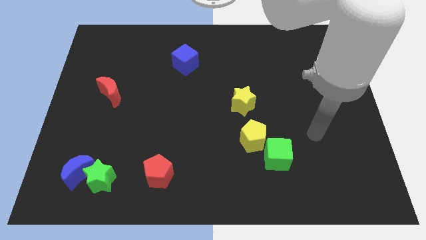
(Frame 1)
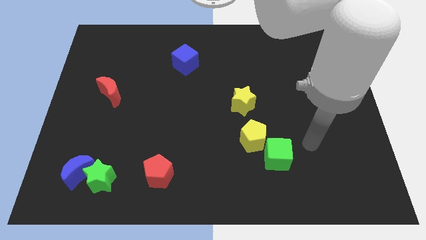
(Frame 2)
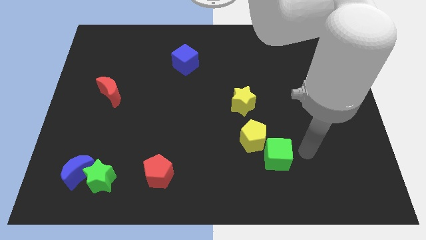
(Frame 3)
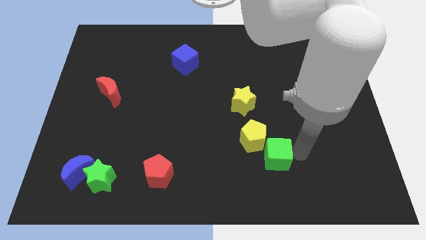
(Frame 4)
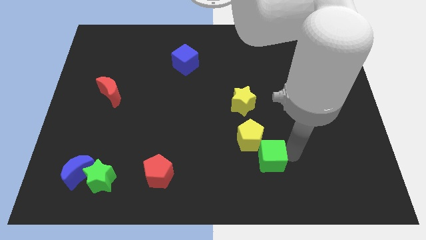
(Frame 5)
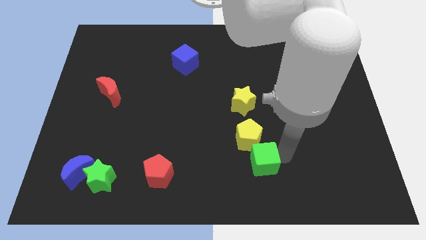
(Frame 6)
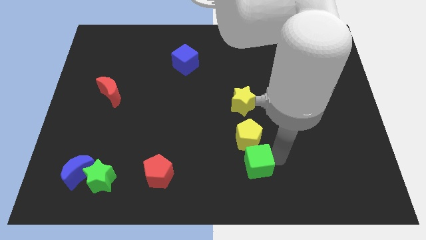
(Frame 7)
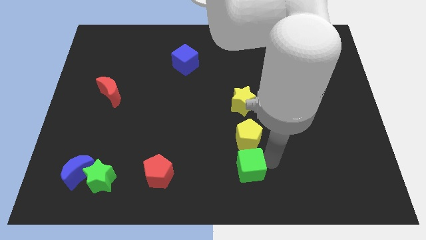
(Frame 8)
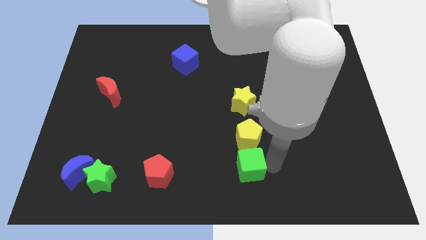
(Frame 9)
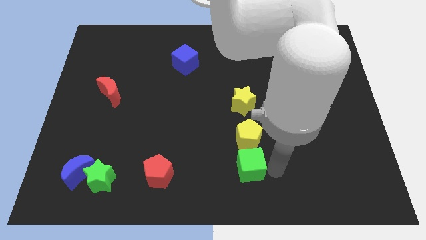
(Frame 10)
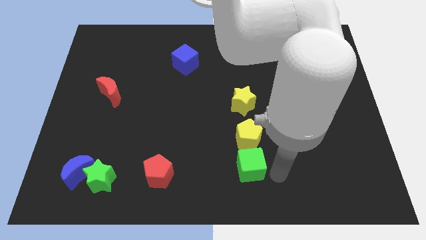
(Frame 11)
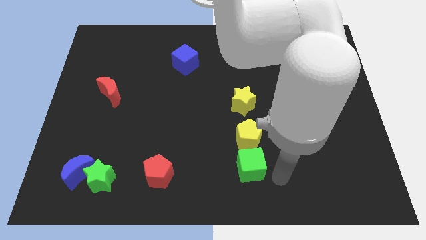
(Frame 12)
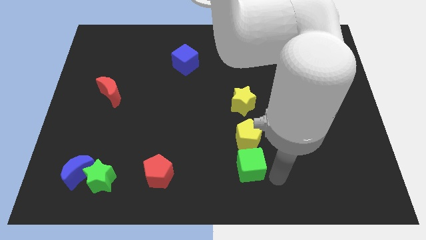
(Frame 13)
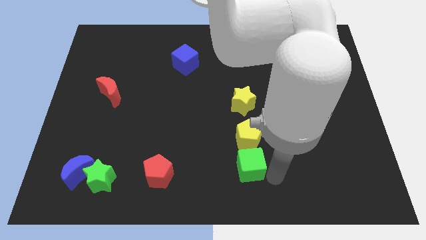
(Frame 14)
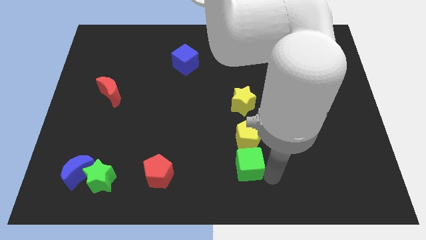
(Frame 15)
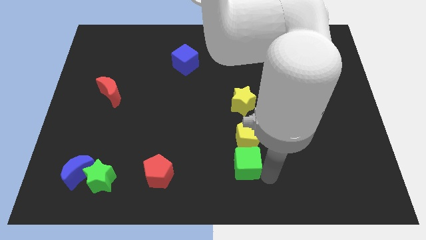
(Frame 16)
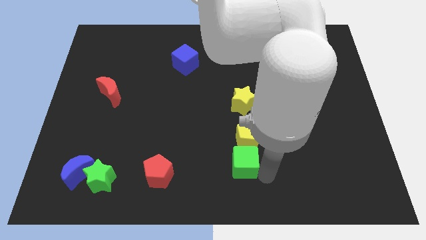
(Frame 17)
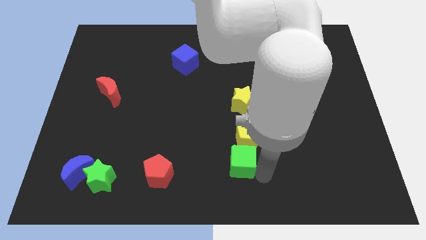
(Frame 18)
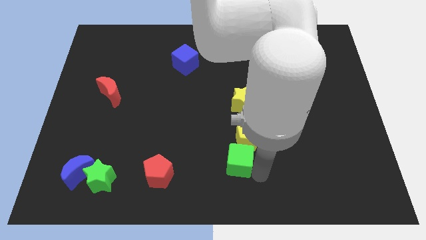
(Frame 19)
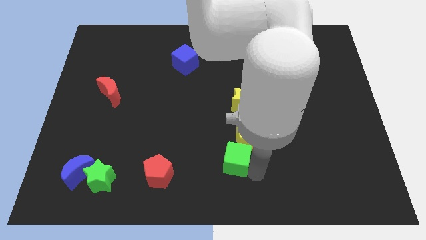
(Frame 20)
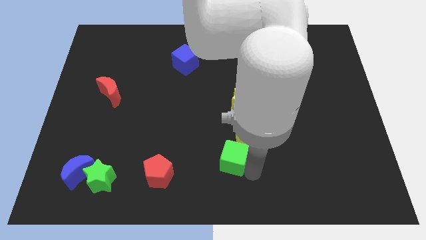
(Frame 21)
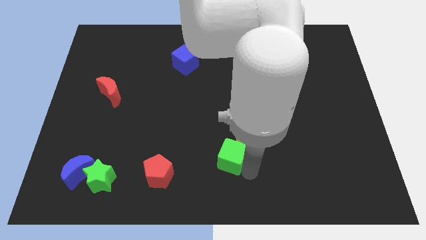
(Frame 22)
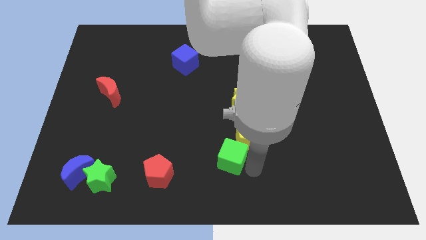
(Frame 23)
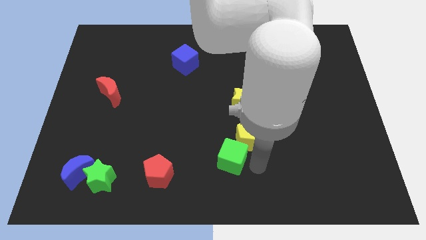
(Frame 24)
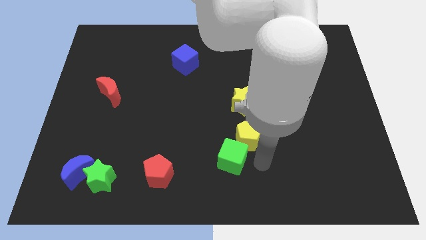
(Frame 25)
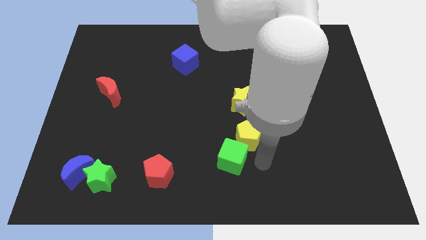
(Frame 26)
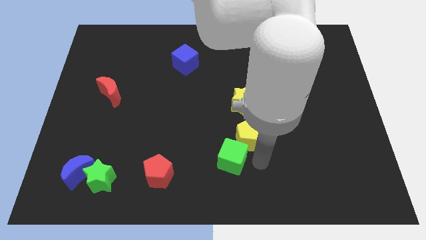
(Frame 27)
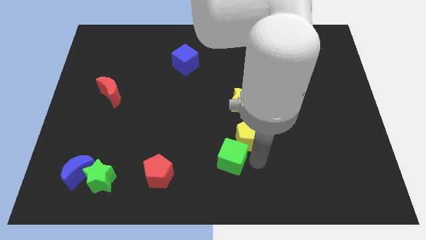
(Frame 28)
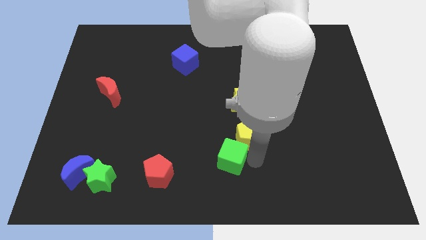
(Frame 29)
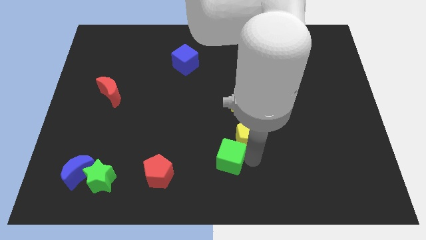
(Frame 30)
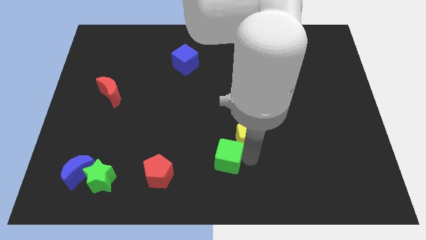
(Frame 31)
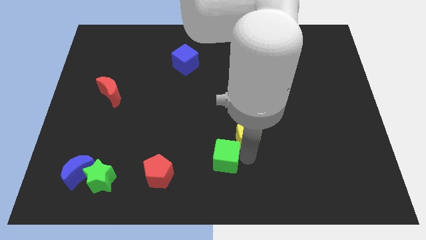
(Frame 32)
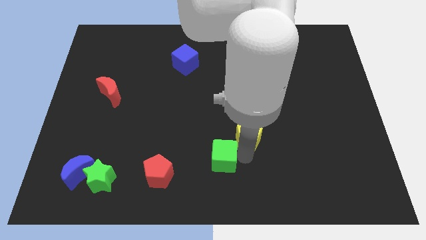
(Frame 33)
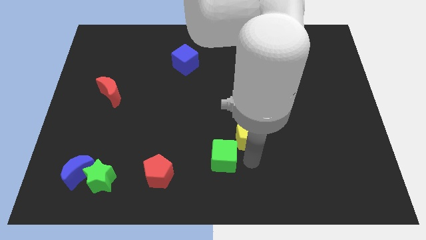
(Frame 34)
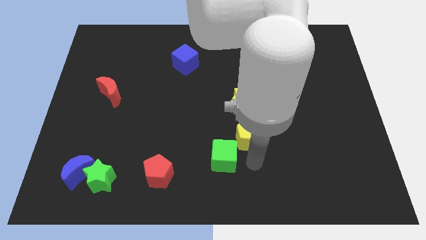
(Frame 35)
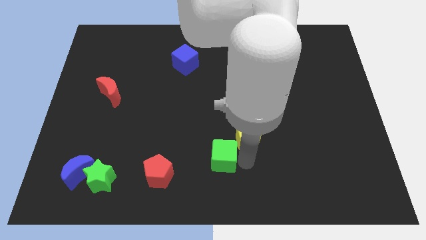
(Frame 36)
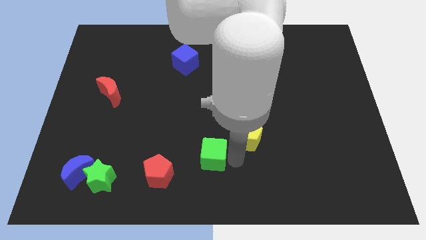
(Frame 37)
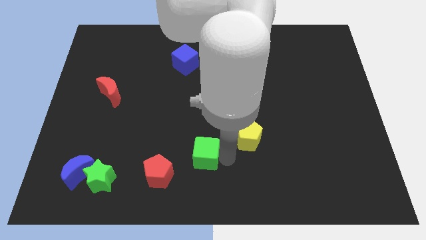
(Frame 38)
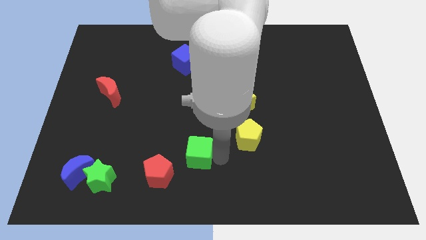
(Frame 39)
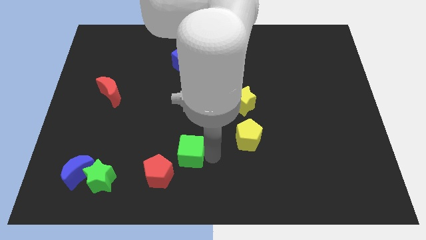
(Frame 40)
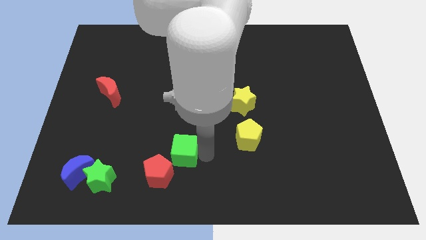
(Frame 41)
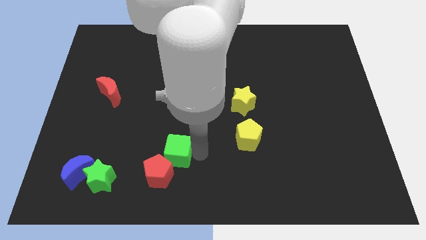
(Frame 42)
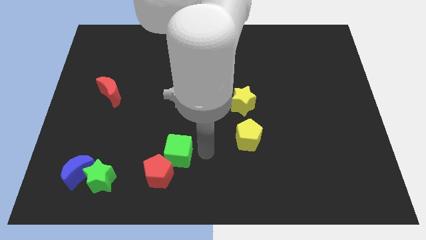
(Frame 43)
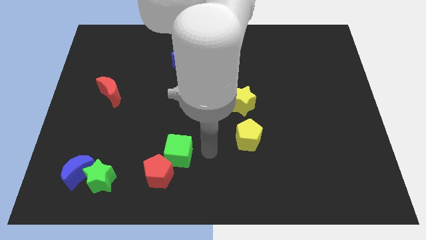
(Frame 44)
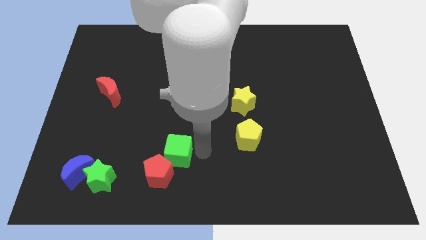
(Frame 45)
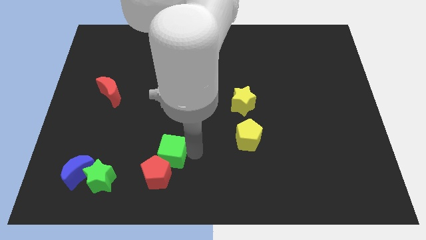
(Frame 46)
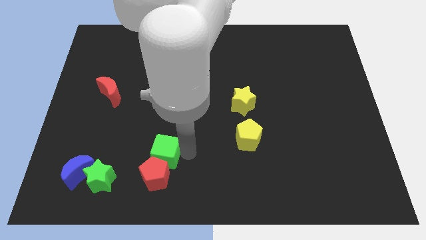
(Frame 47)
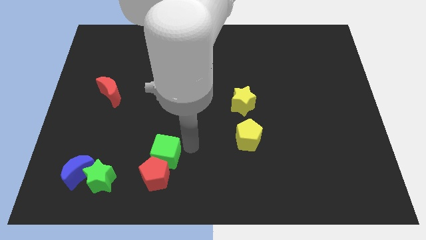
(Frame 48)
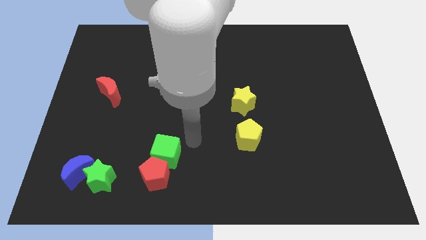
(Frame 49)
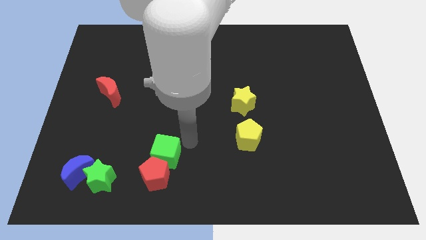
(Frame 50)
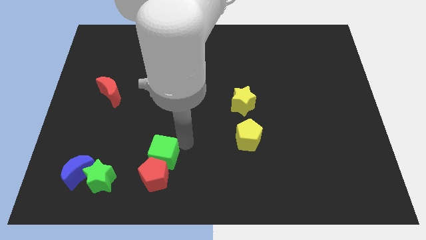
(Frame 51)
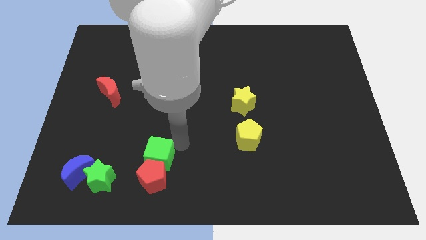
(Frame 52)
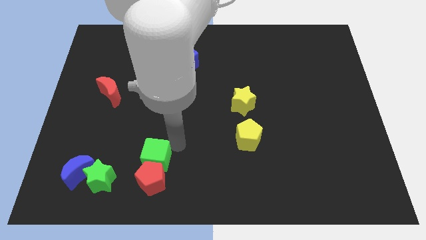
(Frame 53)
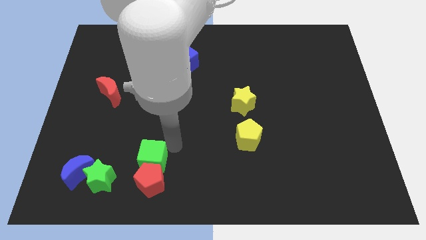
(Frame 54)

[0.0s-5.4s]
move the green cube just right of the blue moon
